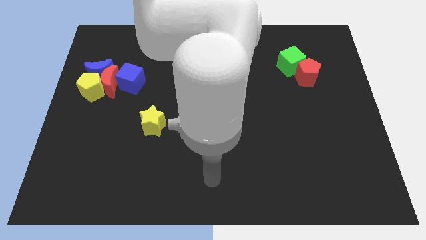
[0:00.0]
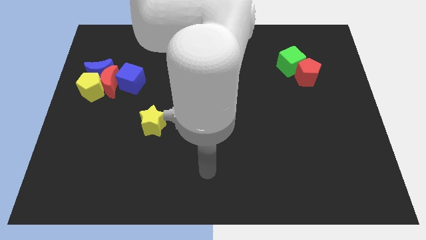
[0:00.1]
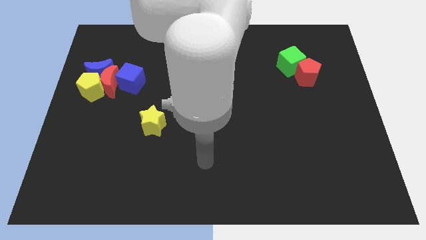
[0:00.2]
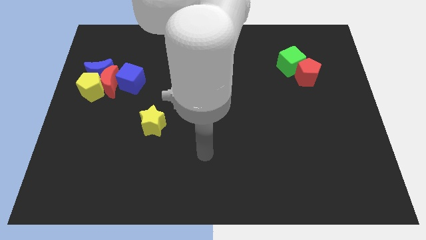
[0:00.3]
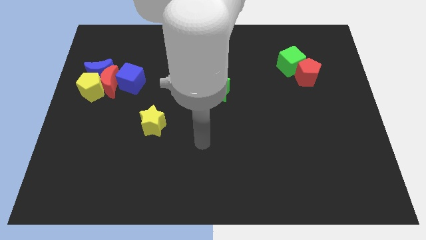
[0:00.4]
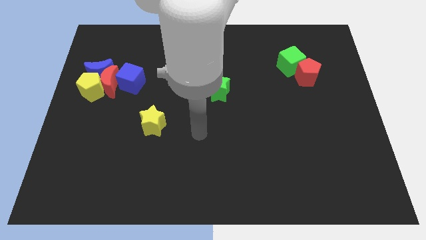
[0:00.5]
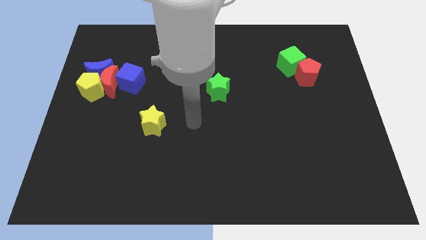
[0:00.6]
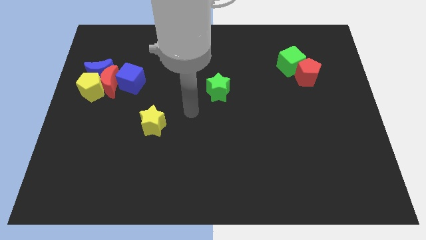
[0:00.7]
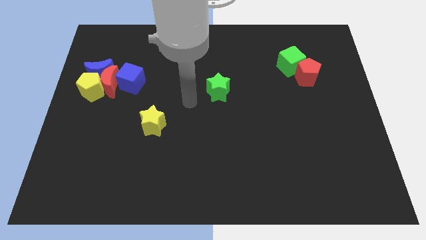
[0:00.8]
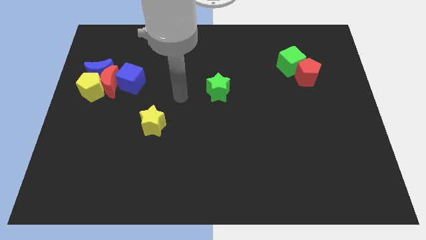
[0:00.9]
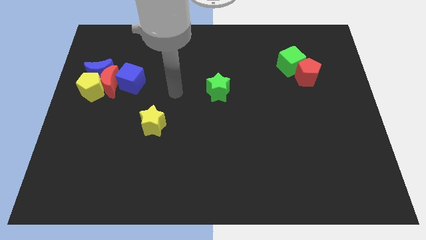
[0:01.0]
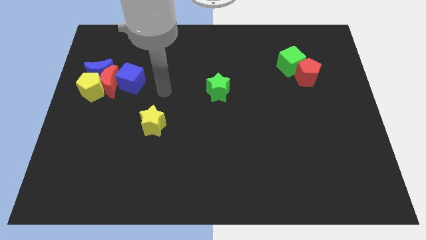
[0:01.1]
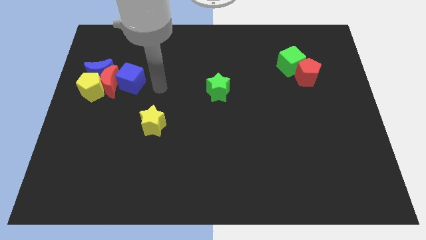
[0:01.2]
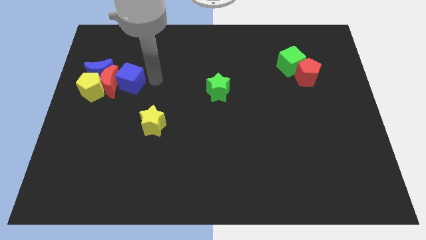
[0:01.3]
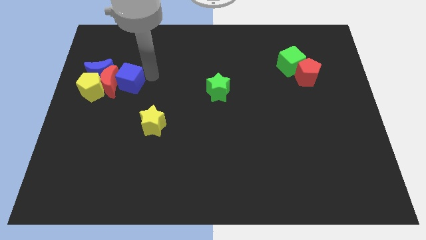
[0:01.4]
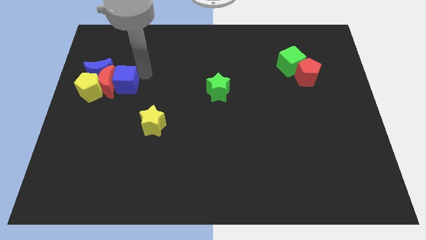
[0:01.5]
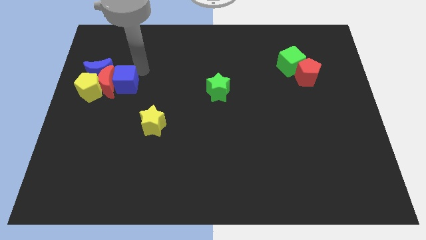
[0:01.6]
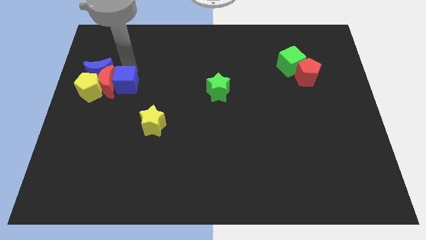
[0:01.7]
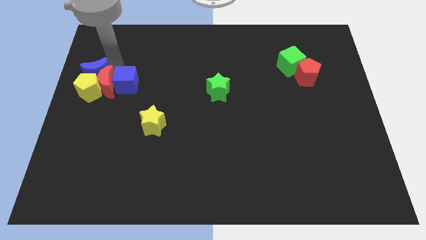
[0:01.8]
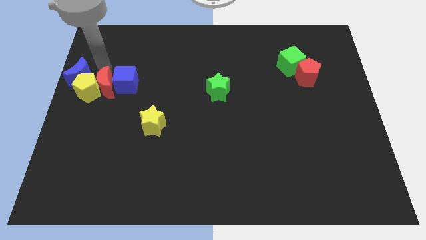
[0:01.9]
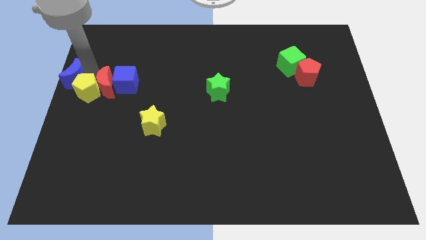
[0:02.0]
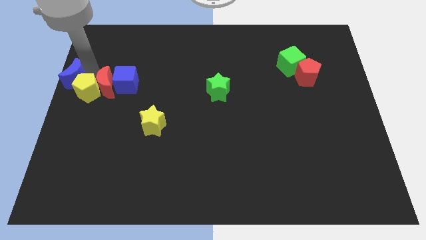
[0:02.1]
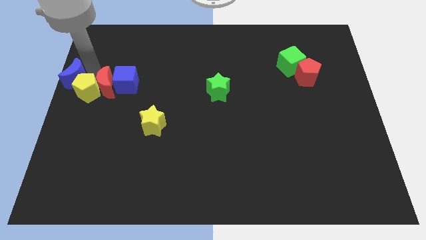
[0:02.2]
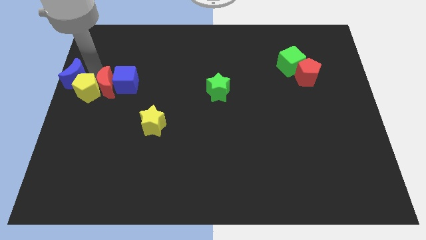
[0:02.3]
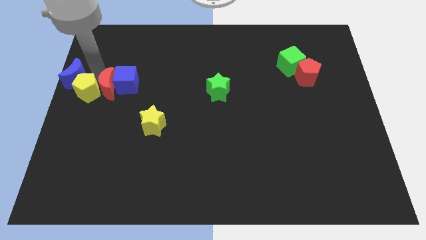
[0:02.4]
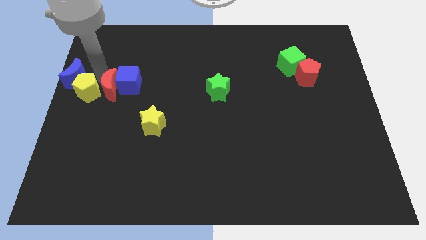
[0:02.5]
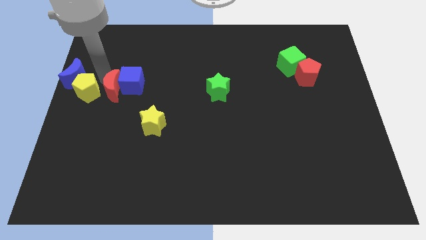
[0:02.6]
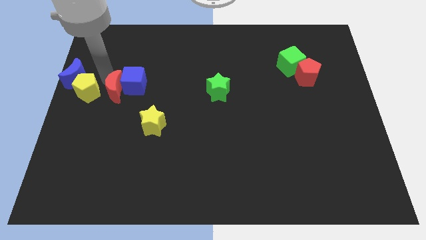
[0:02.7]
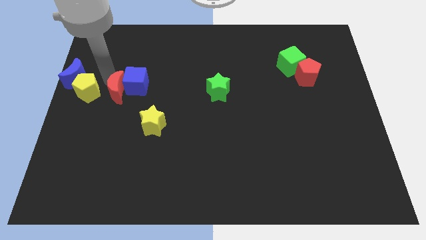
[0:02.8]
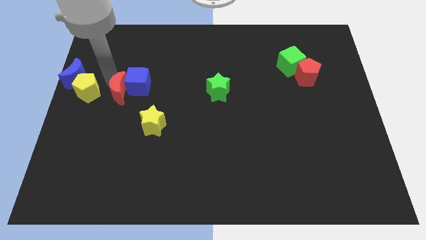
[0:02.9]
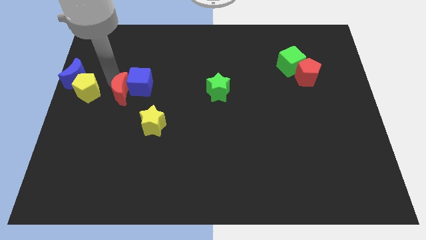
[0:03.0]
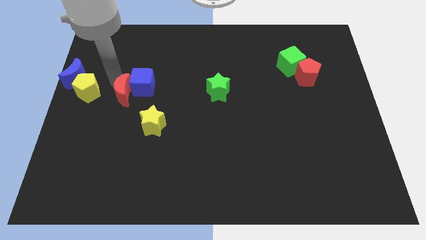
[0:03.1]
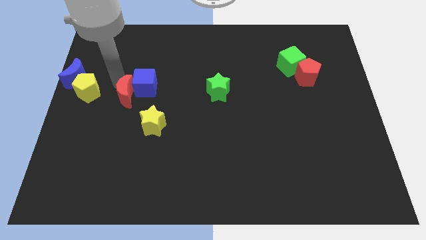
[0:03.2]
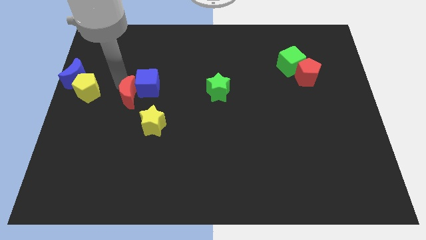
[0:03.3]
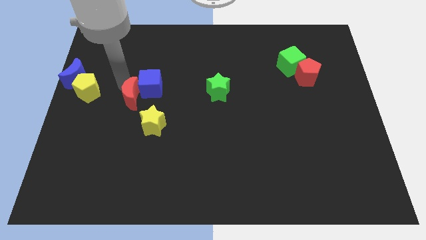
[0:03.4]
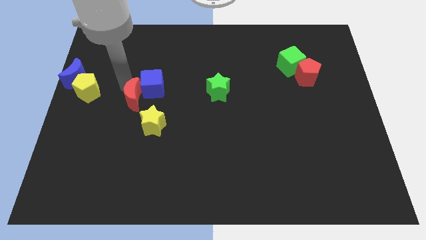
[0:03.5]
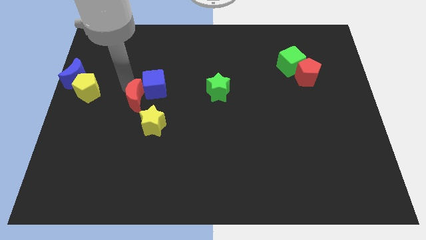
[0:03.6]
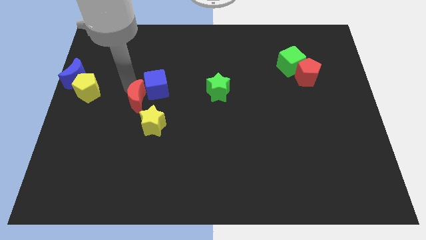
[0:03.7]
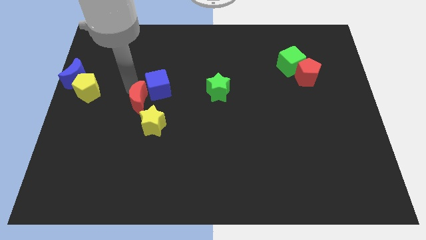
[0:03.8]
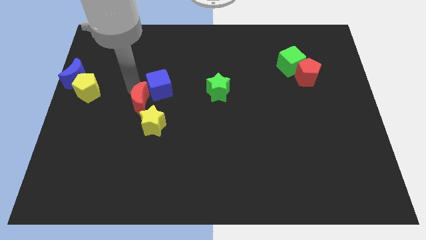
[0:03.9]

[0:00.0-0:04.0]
separate the red moon from the blue moon, yellow pentagon, and blue cube

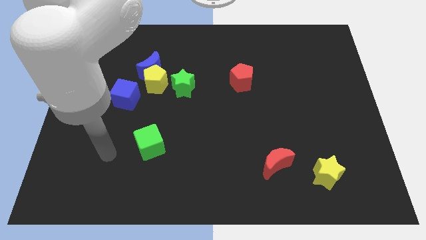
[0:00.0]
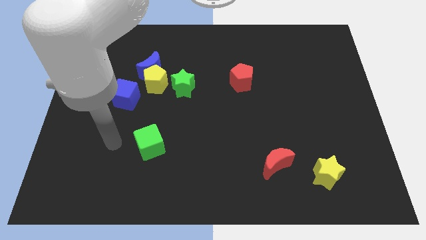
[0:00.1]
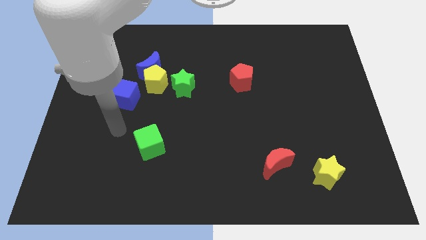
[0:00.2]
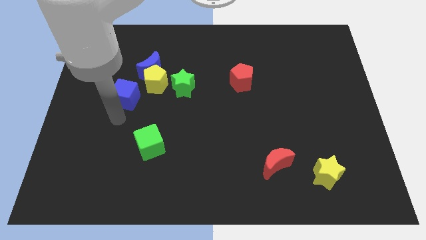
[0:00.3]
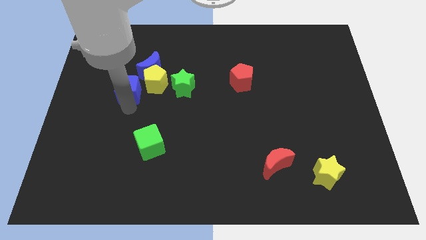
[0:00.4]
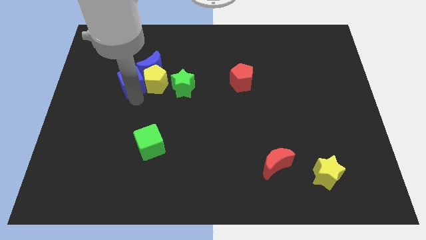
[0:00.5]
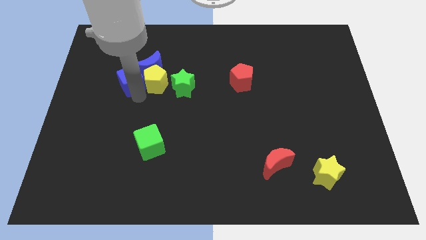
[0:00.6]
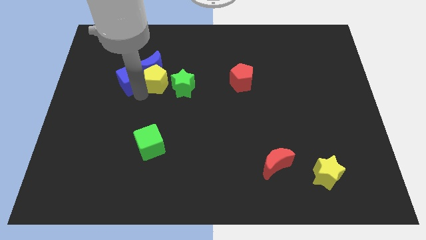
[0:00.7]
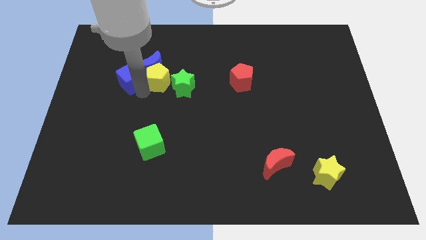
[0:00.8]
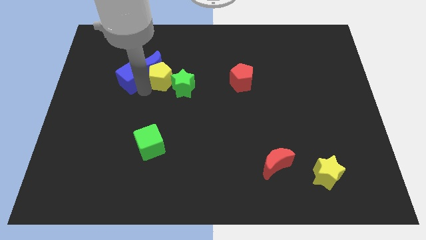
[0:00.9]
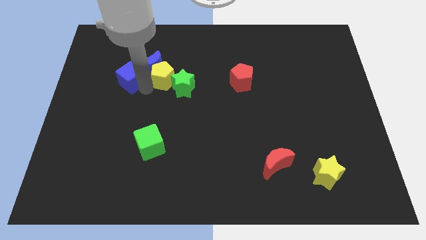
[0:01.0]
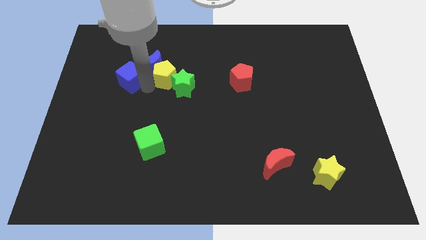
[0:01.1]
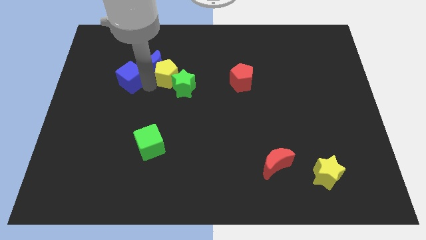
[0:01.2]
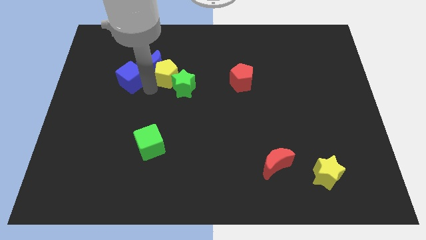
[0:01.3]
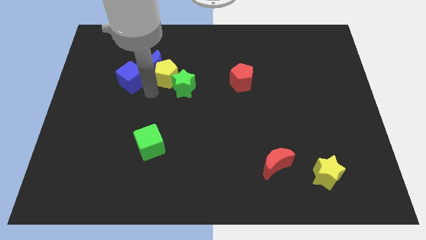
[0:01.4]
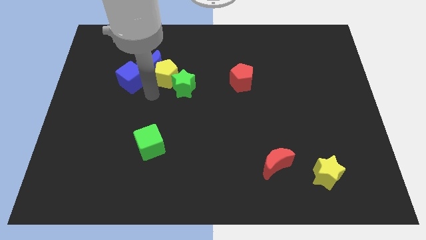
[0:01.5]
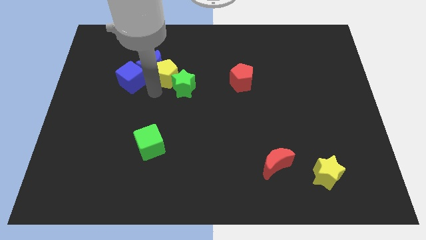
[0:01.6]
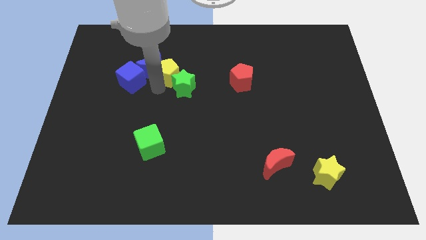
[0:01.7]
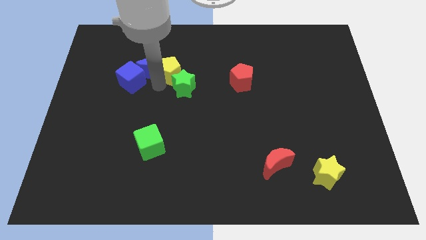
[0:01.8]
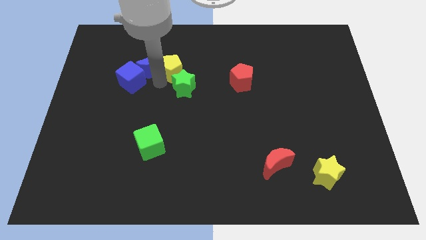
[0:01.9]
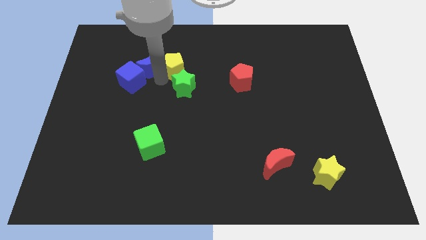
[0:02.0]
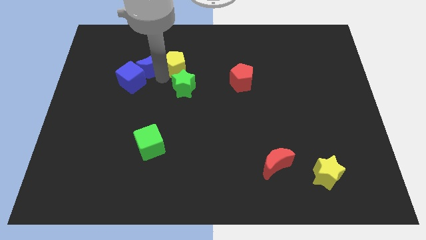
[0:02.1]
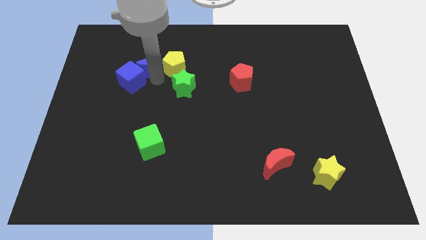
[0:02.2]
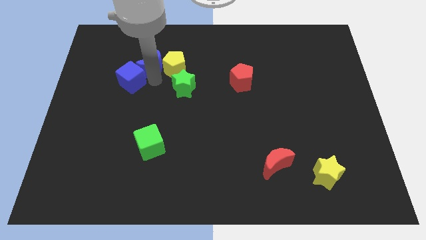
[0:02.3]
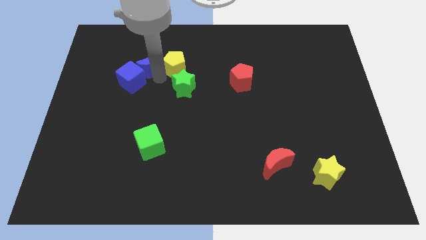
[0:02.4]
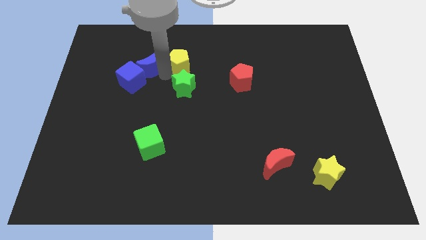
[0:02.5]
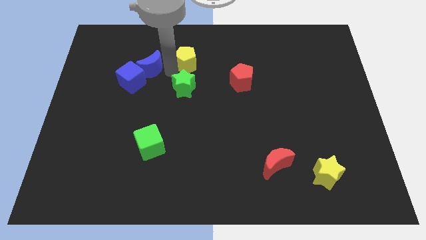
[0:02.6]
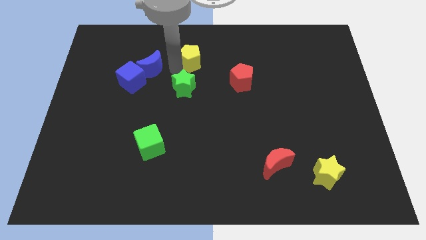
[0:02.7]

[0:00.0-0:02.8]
pull the yellow pentagon apart from the clump

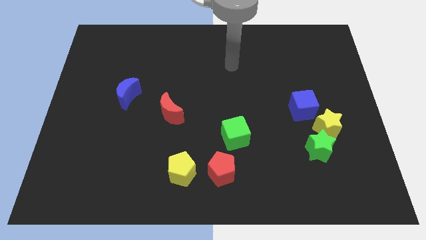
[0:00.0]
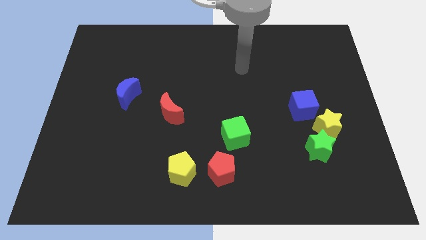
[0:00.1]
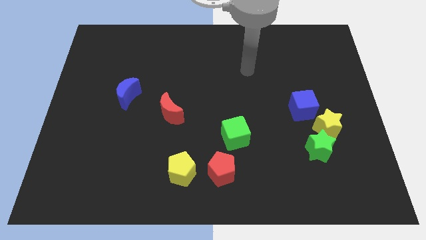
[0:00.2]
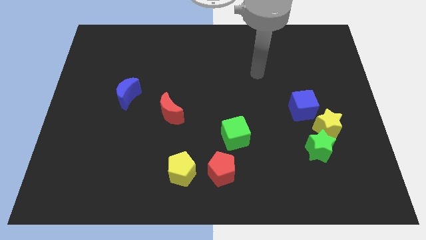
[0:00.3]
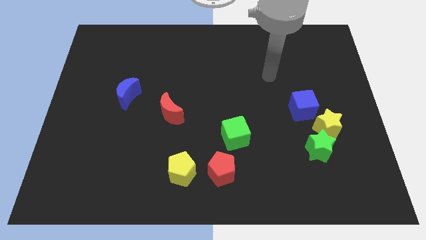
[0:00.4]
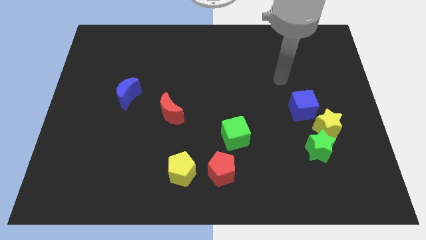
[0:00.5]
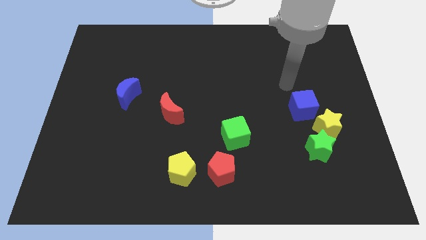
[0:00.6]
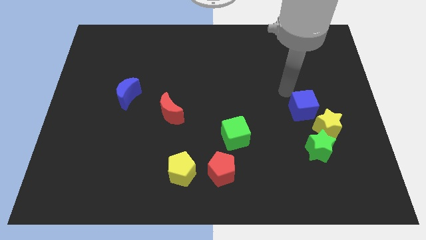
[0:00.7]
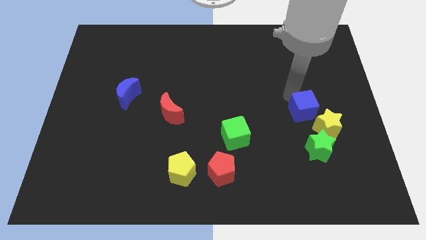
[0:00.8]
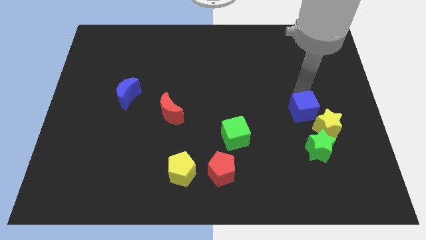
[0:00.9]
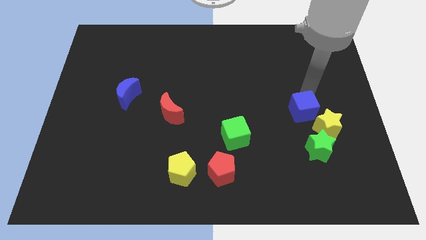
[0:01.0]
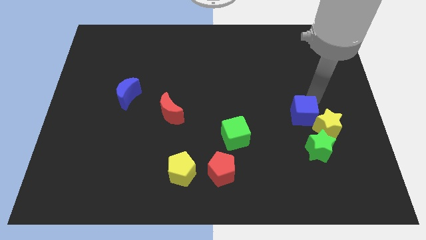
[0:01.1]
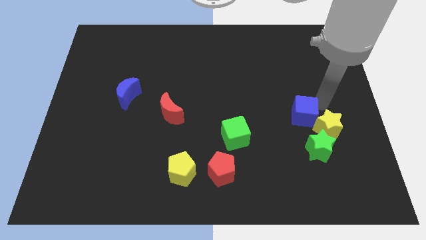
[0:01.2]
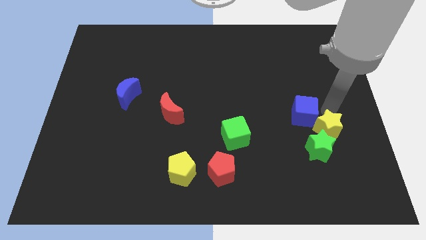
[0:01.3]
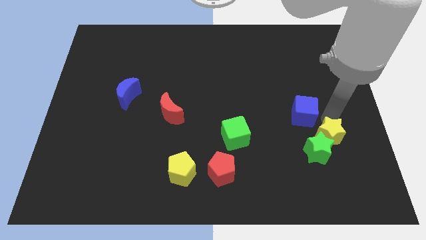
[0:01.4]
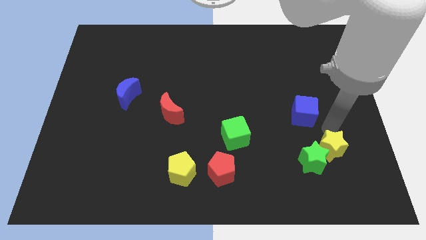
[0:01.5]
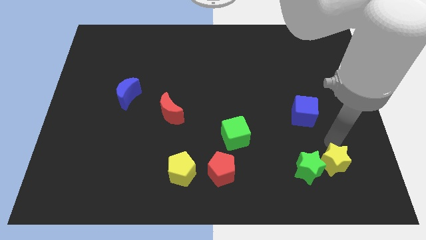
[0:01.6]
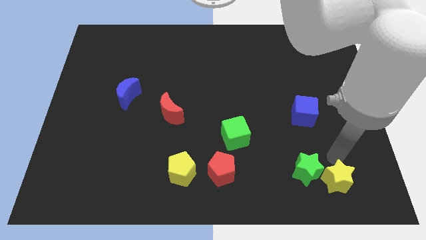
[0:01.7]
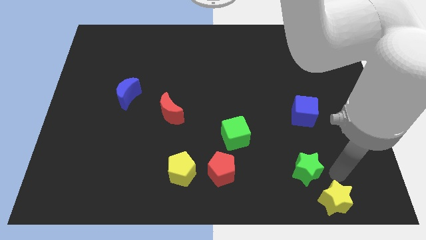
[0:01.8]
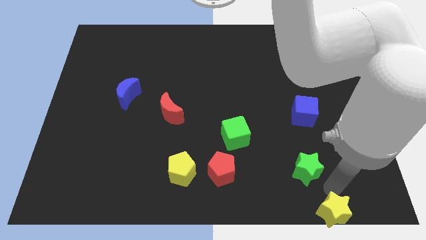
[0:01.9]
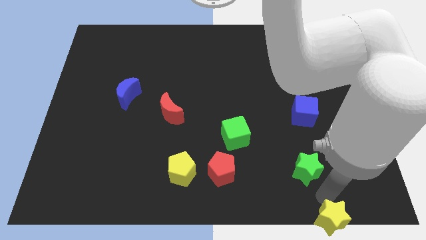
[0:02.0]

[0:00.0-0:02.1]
move the green star away from the yellow star

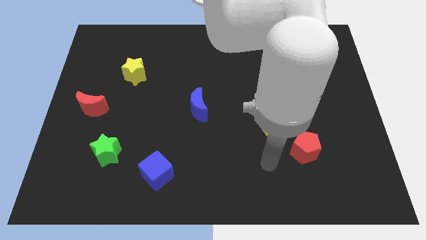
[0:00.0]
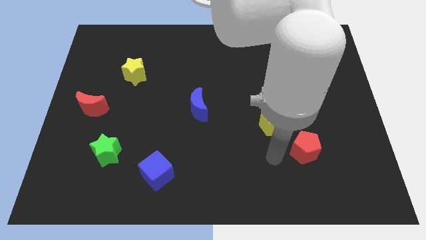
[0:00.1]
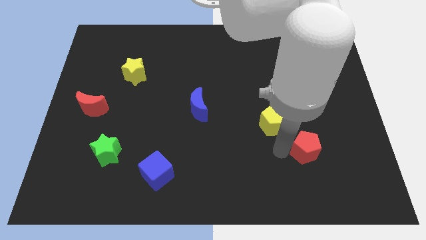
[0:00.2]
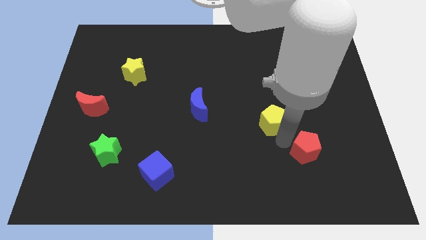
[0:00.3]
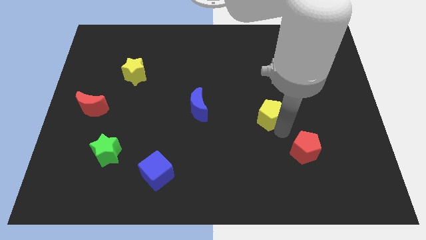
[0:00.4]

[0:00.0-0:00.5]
separate the red pentagon from the yellow pentagon
